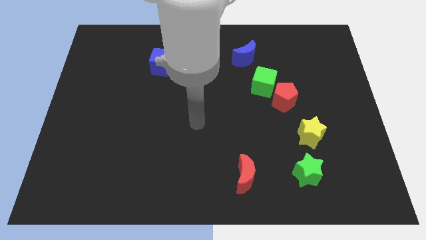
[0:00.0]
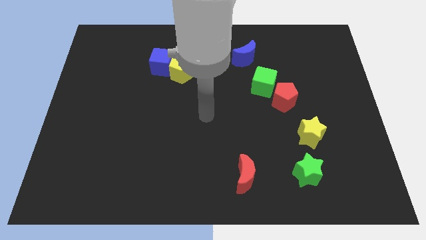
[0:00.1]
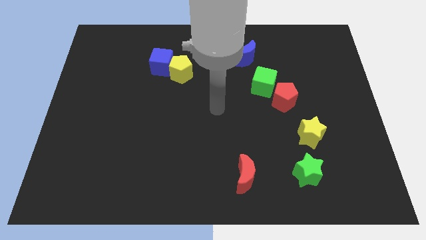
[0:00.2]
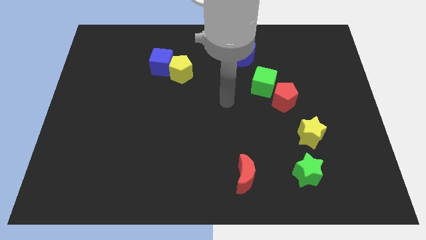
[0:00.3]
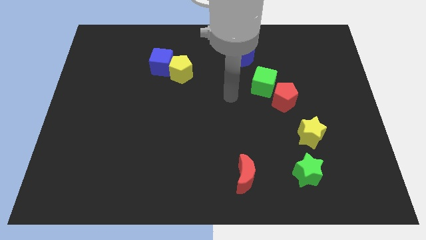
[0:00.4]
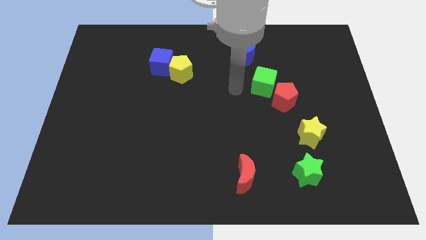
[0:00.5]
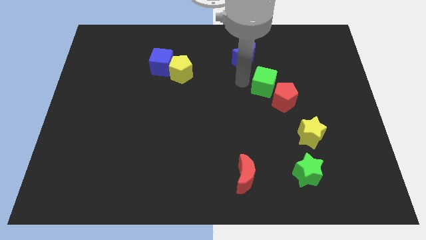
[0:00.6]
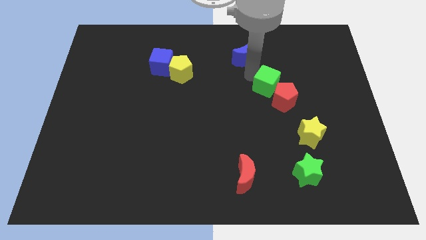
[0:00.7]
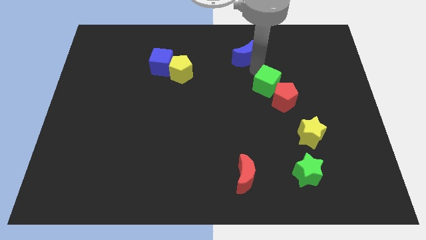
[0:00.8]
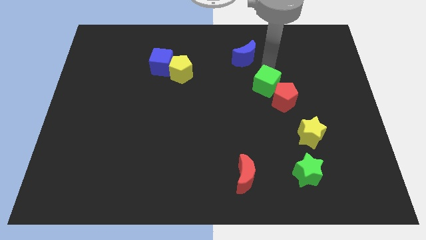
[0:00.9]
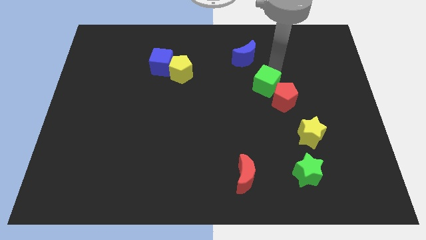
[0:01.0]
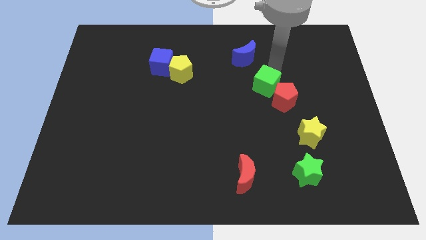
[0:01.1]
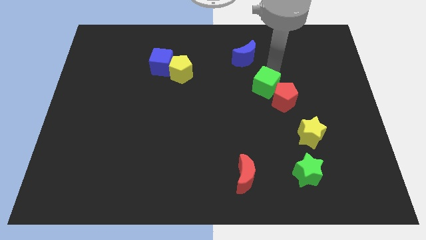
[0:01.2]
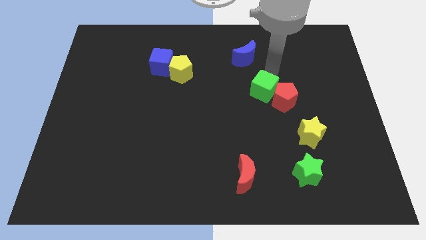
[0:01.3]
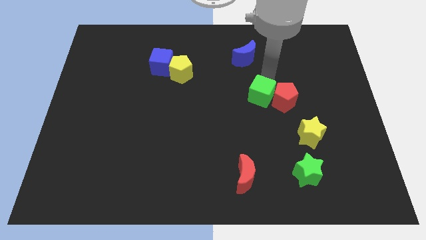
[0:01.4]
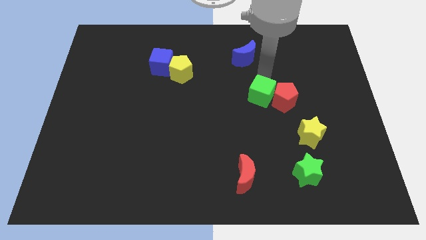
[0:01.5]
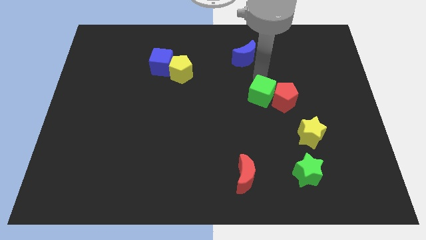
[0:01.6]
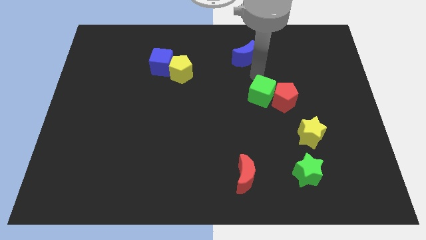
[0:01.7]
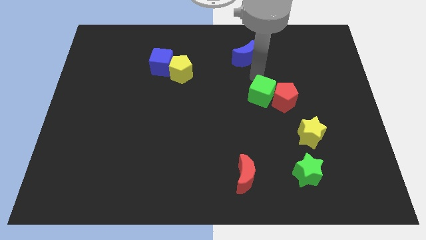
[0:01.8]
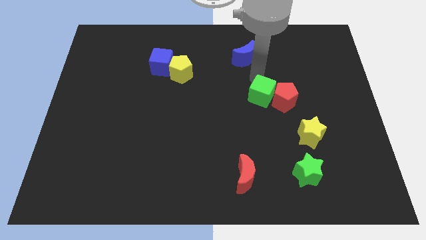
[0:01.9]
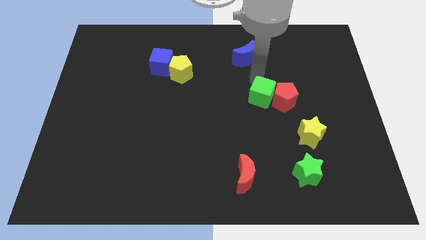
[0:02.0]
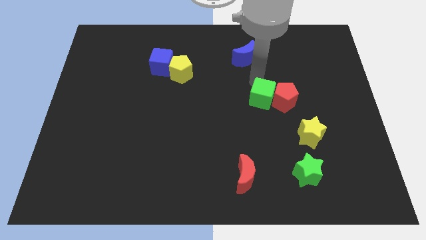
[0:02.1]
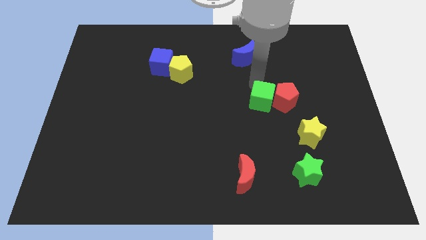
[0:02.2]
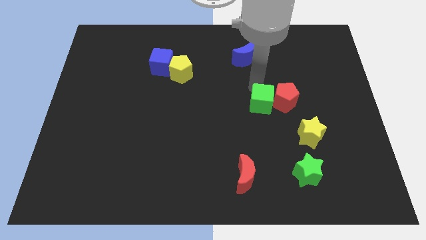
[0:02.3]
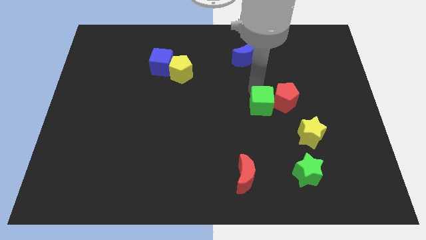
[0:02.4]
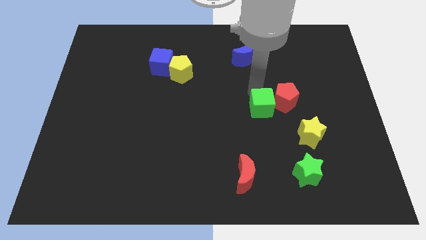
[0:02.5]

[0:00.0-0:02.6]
slightly slide the green cube downwards

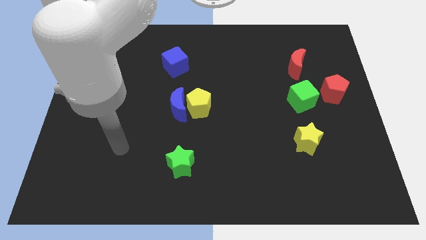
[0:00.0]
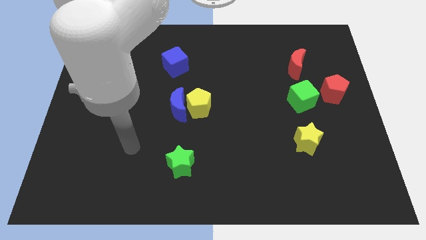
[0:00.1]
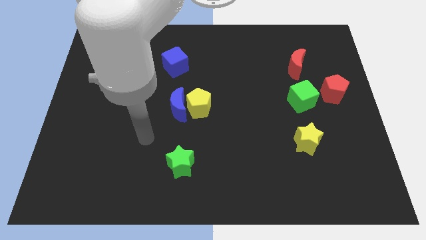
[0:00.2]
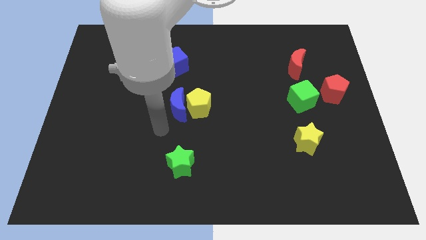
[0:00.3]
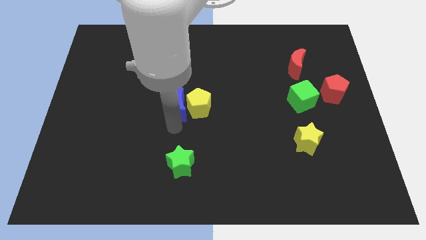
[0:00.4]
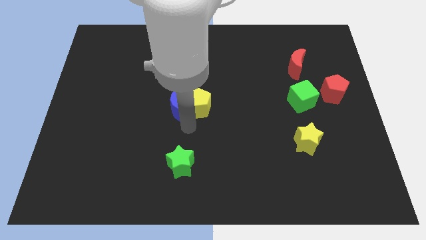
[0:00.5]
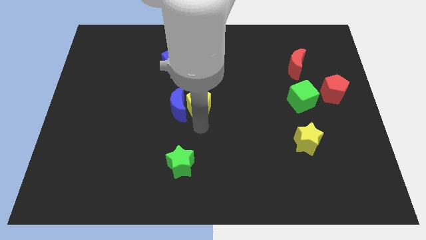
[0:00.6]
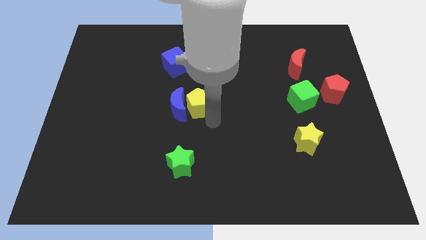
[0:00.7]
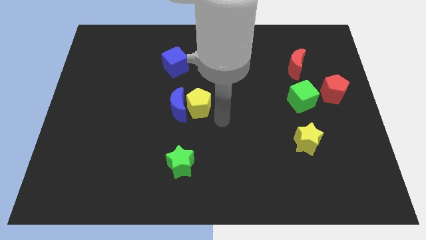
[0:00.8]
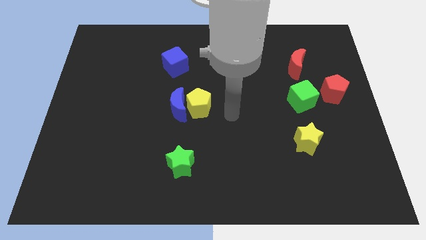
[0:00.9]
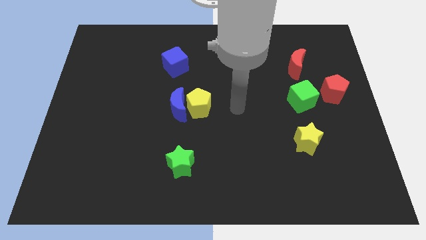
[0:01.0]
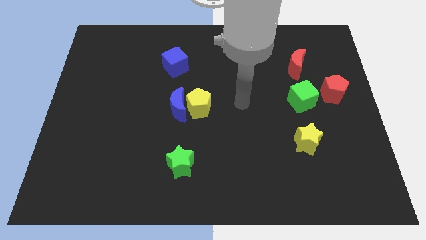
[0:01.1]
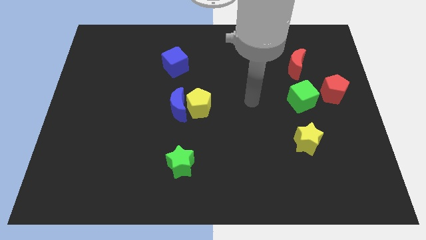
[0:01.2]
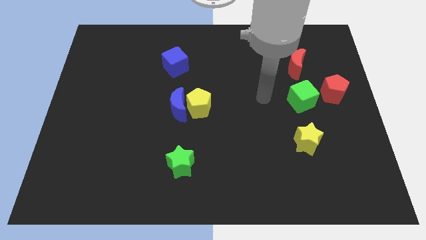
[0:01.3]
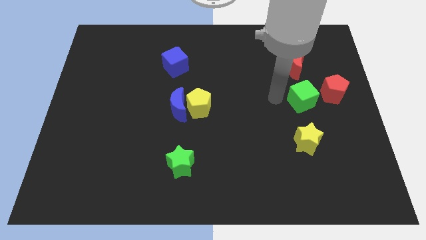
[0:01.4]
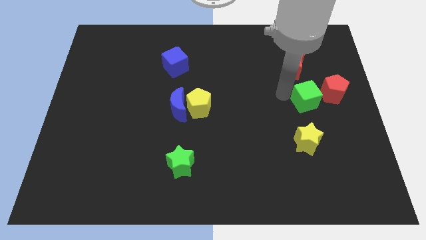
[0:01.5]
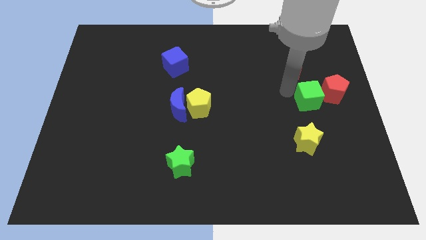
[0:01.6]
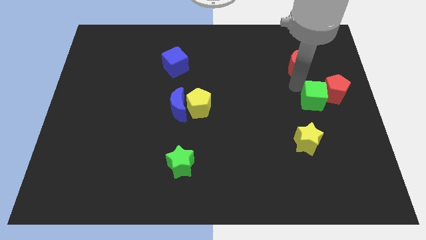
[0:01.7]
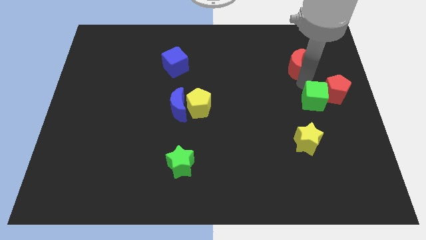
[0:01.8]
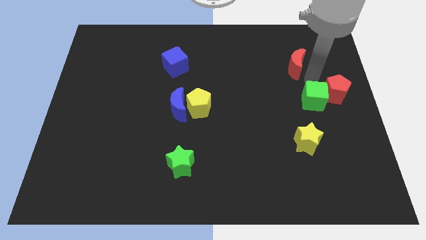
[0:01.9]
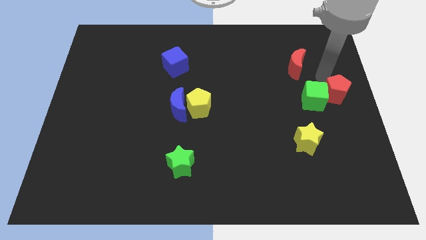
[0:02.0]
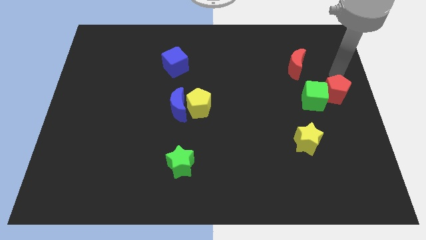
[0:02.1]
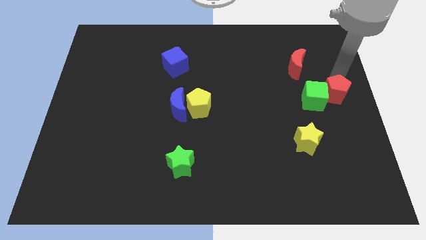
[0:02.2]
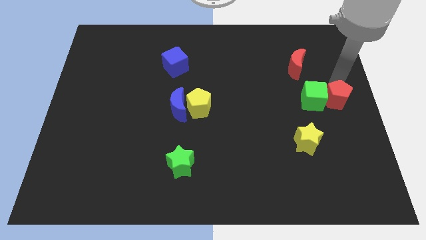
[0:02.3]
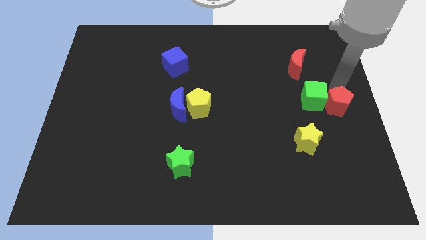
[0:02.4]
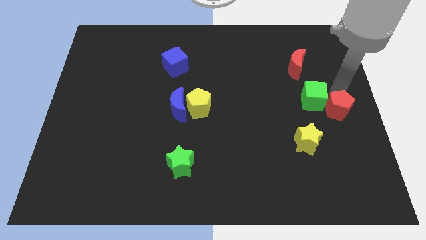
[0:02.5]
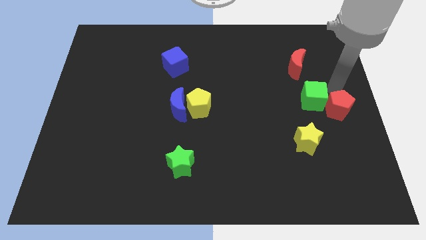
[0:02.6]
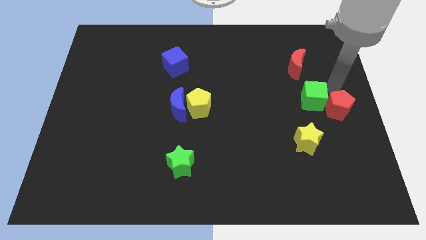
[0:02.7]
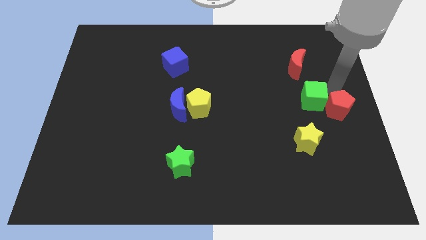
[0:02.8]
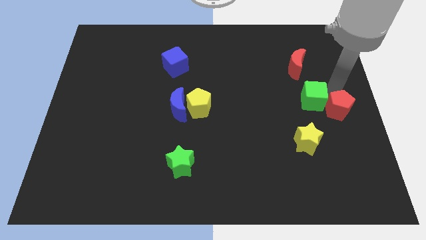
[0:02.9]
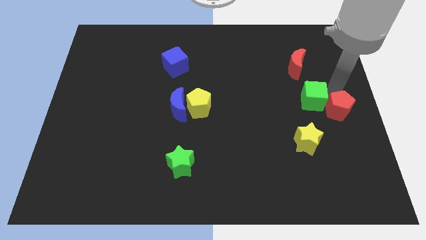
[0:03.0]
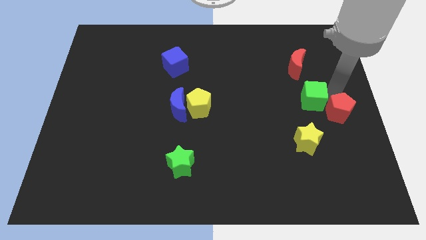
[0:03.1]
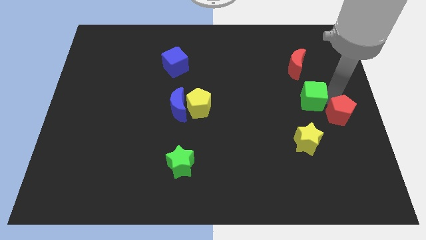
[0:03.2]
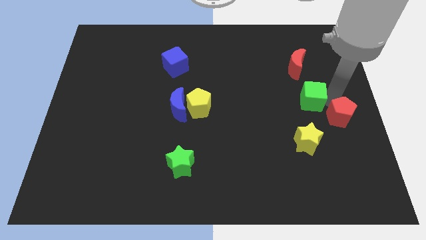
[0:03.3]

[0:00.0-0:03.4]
move the red pentagon down somewhat

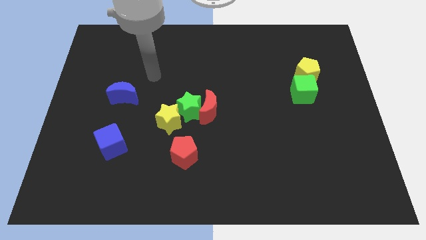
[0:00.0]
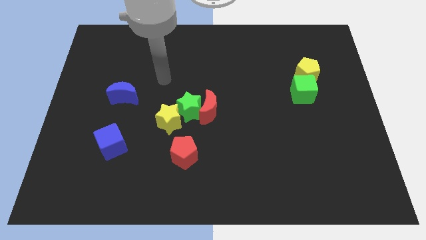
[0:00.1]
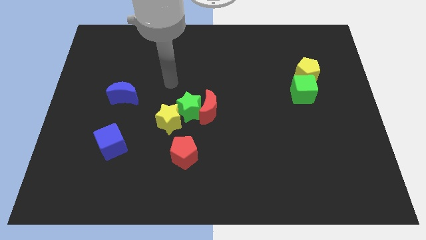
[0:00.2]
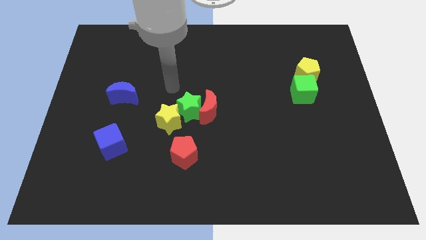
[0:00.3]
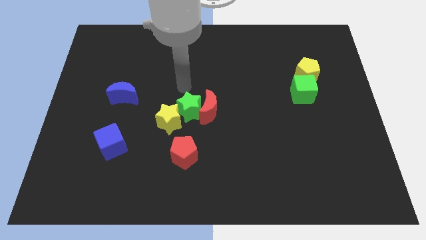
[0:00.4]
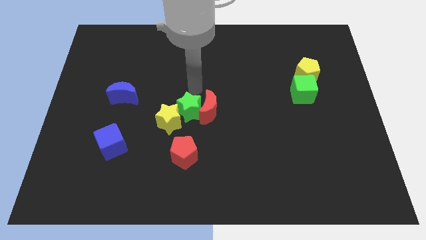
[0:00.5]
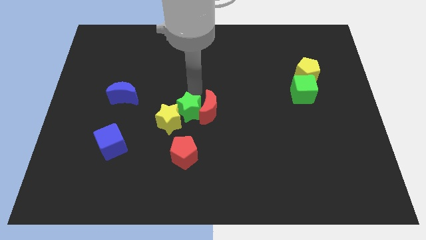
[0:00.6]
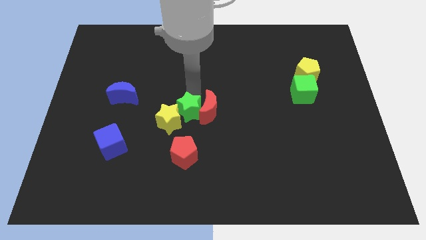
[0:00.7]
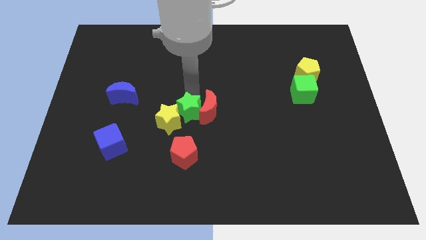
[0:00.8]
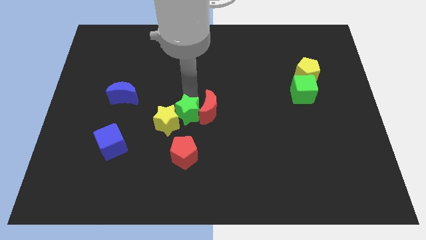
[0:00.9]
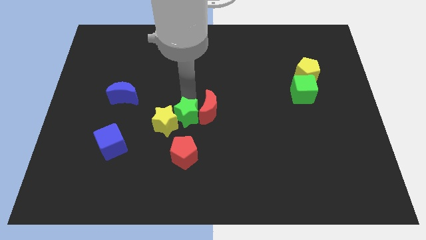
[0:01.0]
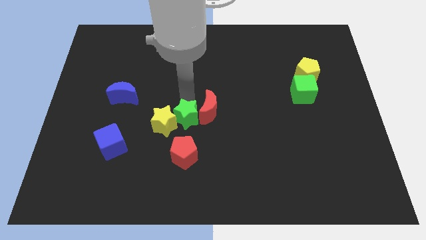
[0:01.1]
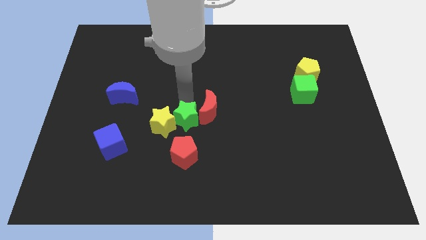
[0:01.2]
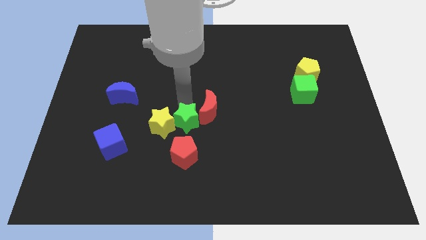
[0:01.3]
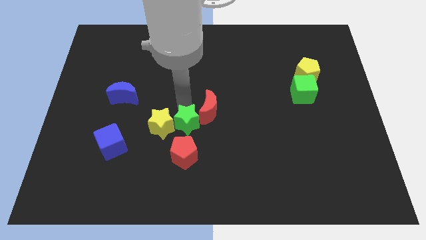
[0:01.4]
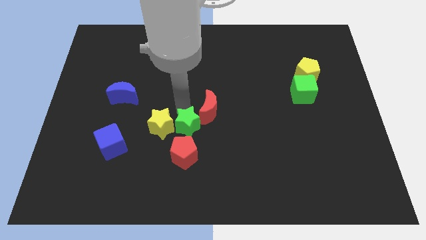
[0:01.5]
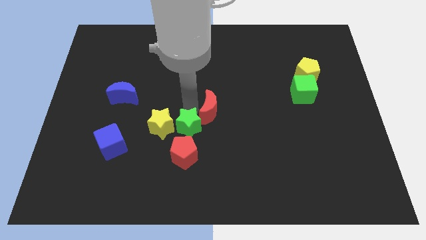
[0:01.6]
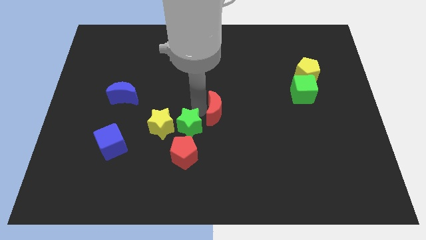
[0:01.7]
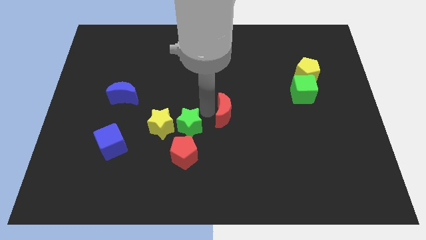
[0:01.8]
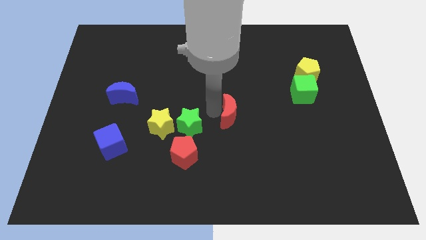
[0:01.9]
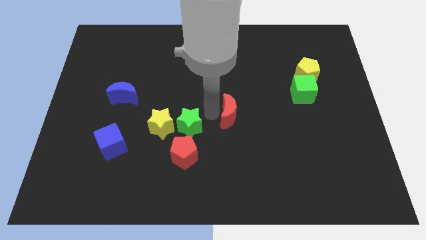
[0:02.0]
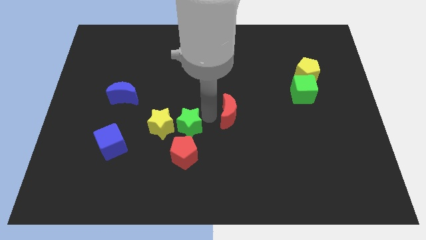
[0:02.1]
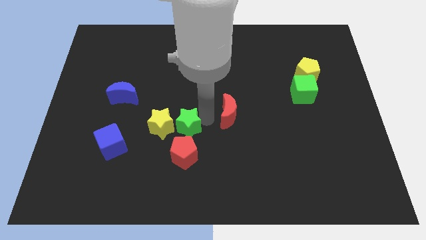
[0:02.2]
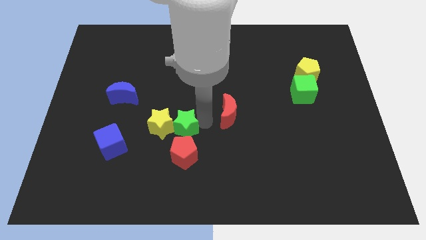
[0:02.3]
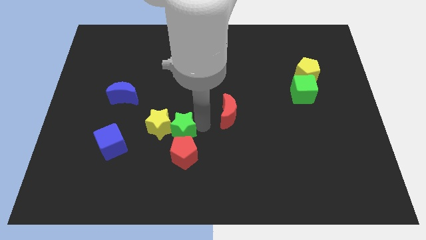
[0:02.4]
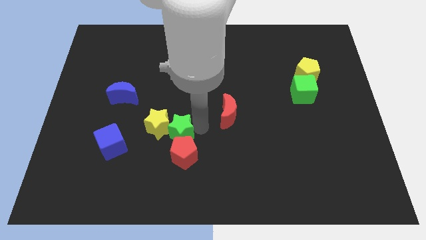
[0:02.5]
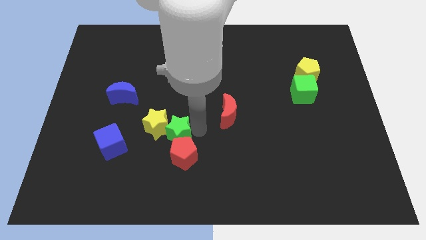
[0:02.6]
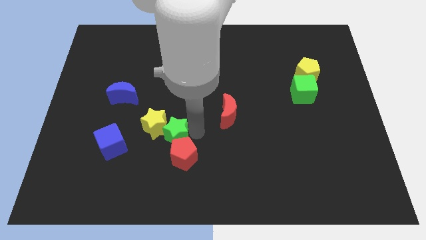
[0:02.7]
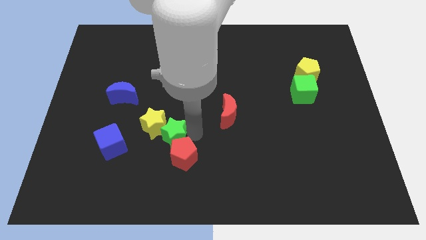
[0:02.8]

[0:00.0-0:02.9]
move the green star diagonally down and left a little bit
